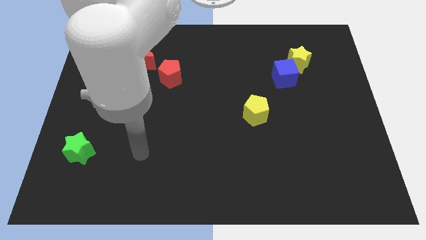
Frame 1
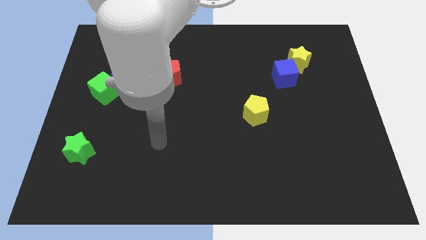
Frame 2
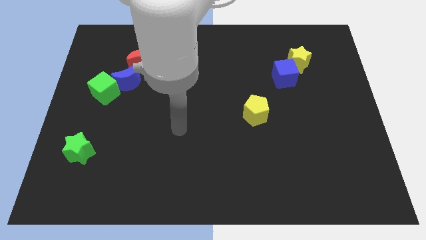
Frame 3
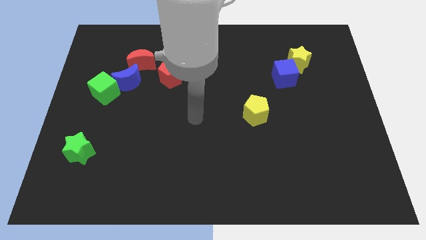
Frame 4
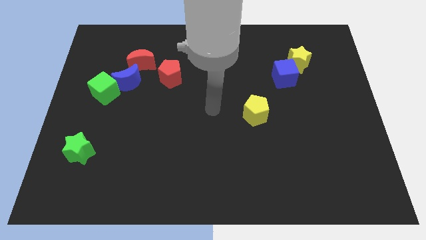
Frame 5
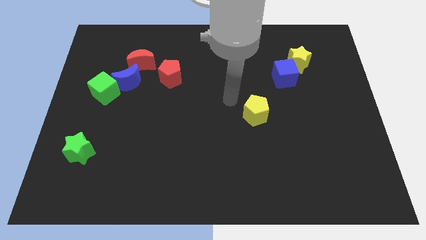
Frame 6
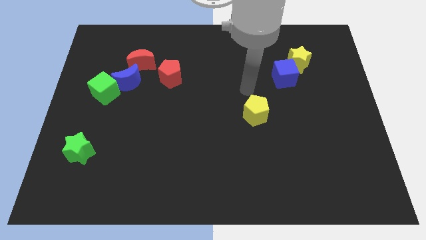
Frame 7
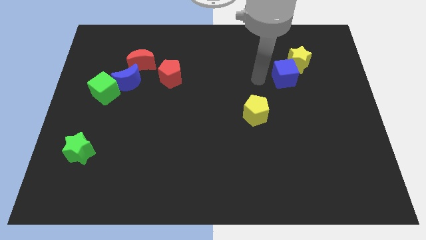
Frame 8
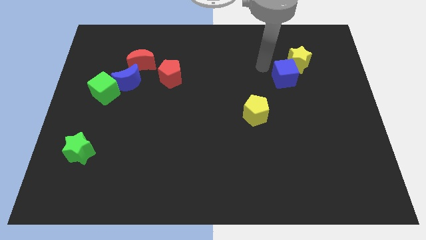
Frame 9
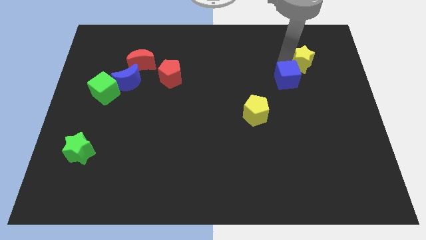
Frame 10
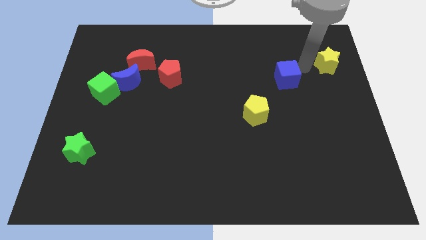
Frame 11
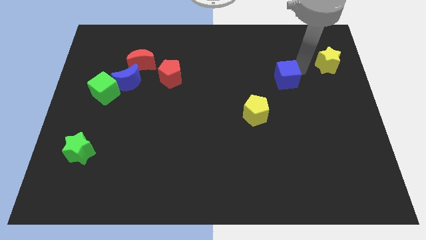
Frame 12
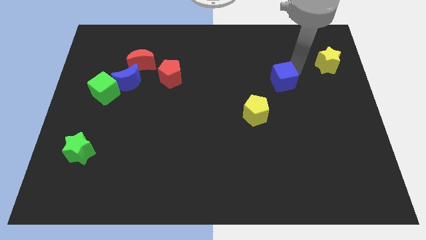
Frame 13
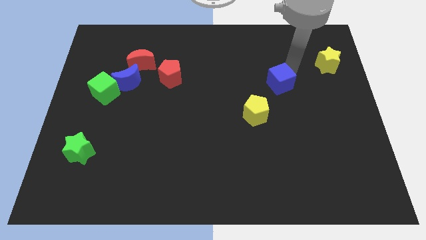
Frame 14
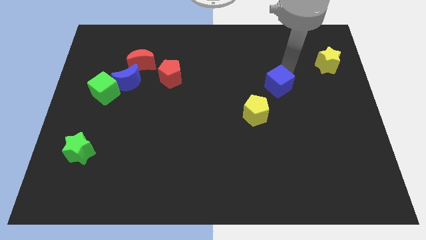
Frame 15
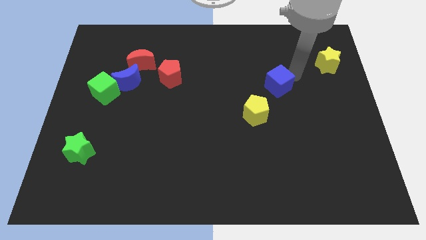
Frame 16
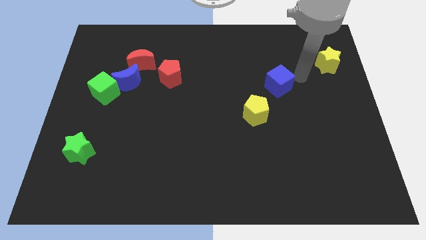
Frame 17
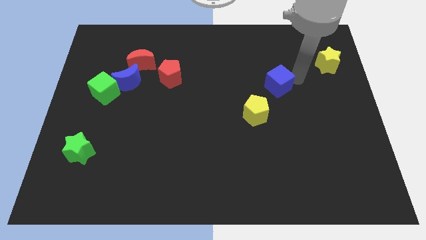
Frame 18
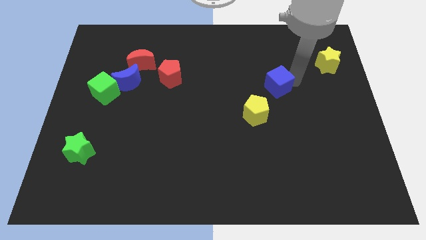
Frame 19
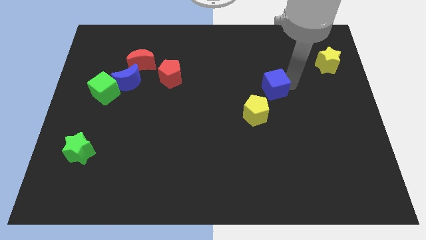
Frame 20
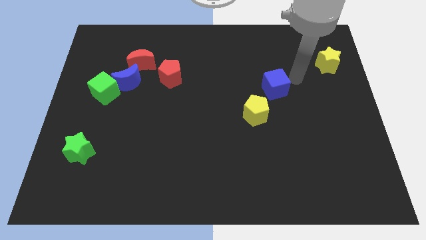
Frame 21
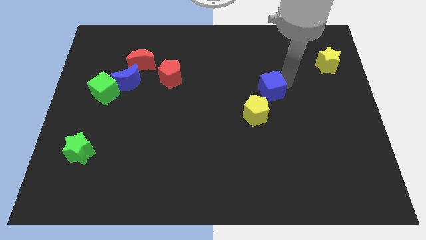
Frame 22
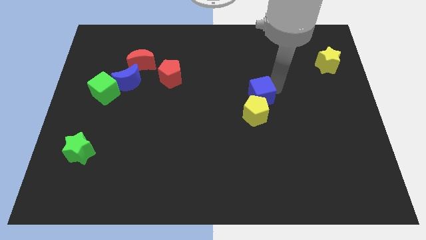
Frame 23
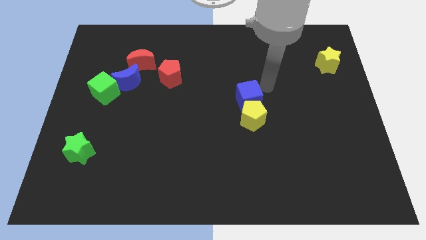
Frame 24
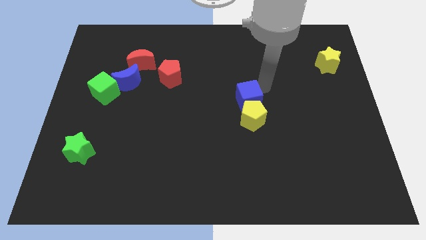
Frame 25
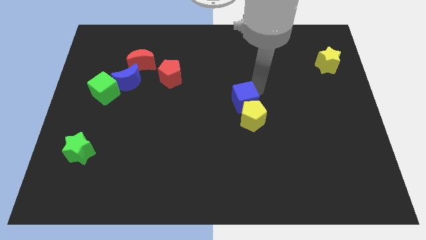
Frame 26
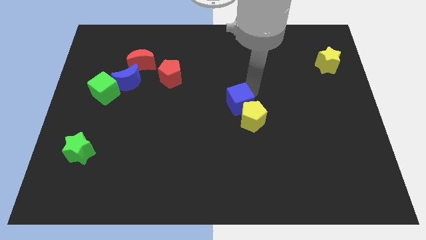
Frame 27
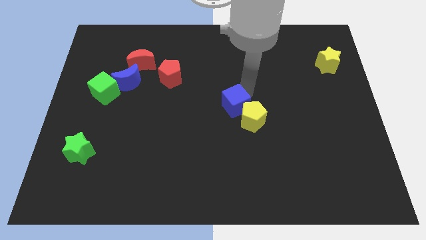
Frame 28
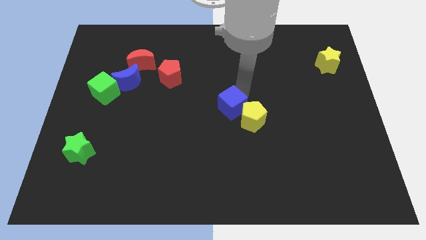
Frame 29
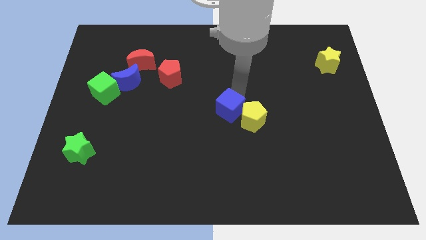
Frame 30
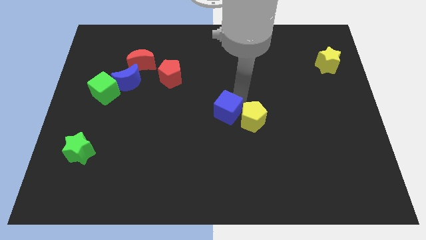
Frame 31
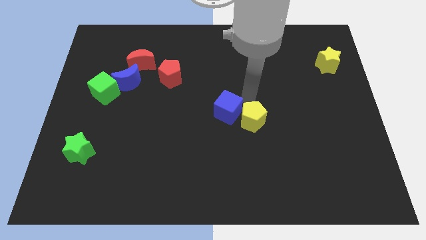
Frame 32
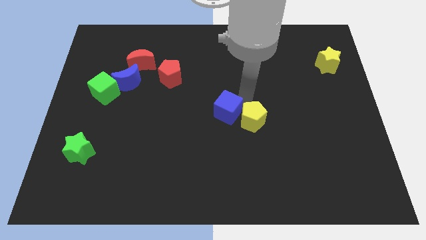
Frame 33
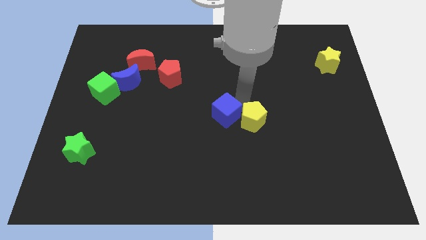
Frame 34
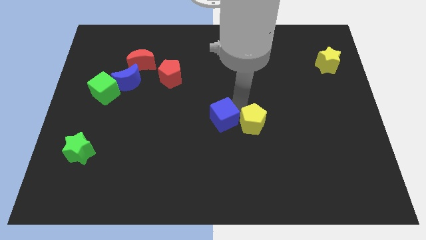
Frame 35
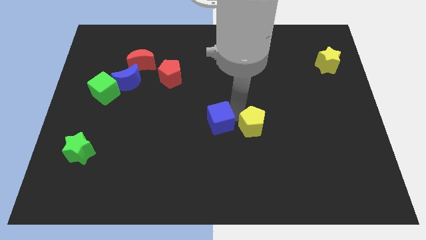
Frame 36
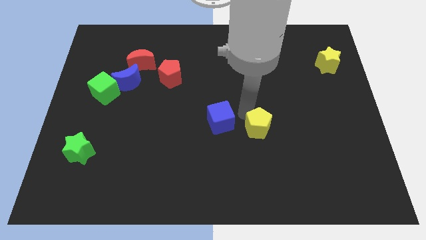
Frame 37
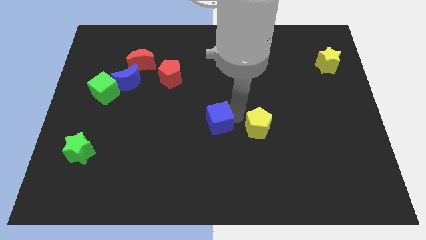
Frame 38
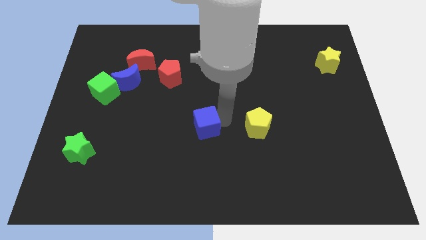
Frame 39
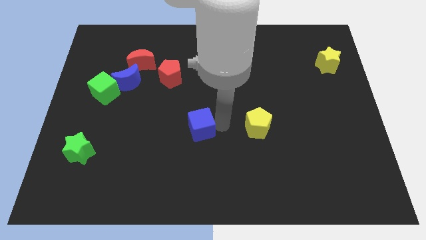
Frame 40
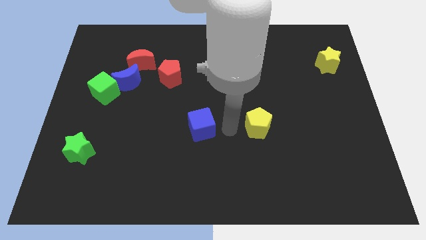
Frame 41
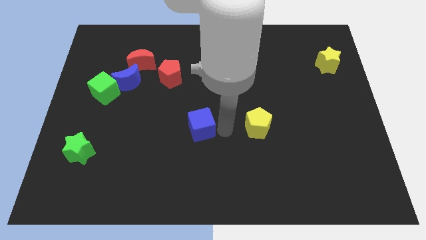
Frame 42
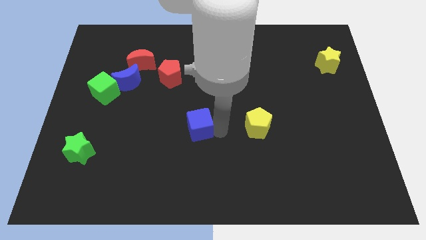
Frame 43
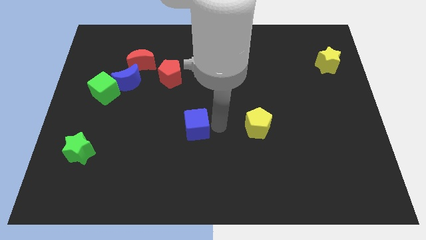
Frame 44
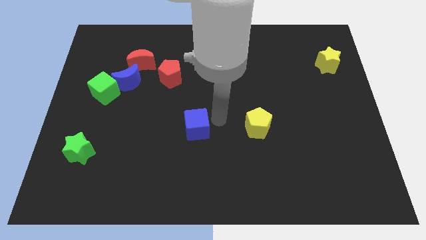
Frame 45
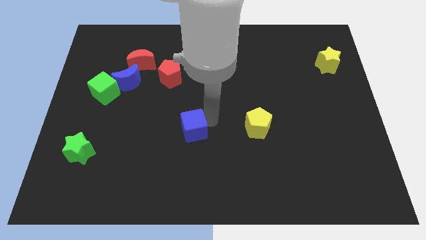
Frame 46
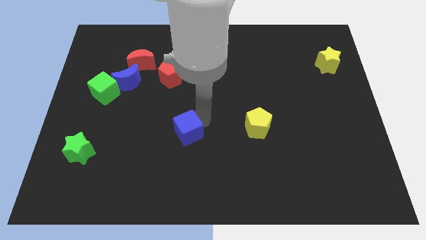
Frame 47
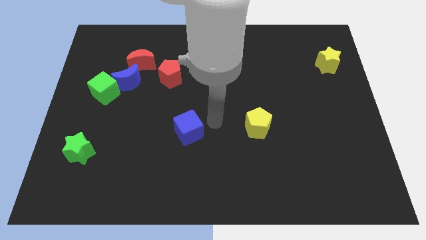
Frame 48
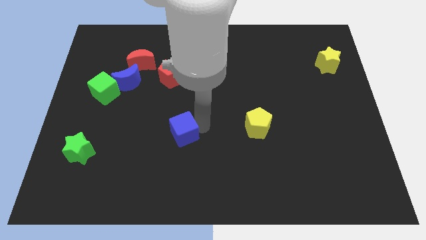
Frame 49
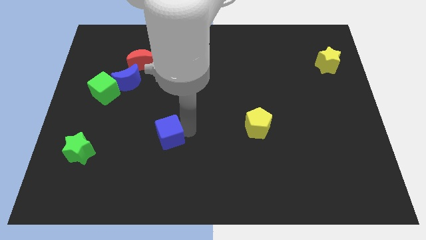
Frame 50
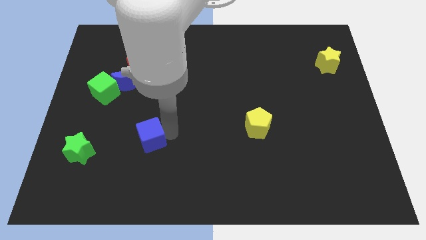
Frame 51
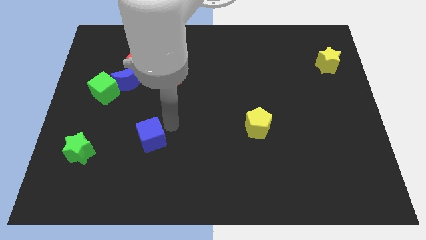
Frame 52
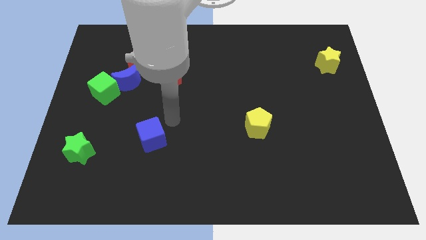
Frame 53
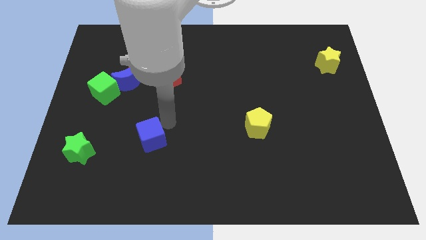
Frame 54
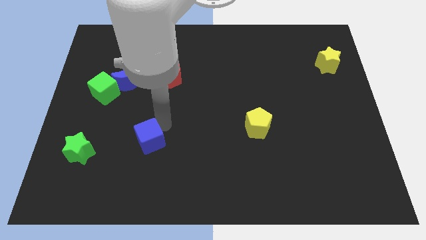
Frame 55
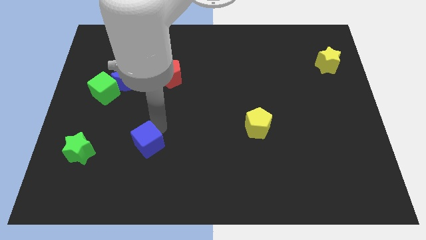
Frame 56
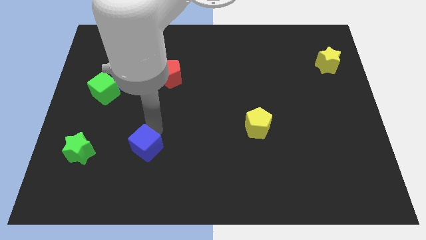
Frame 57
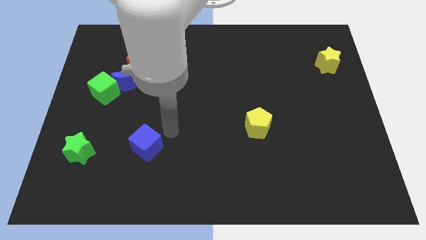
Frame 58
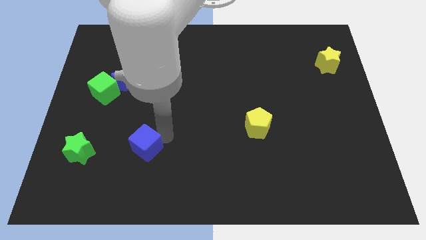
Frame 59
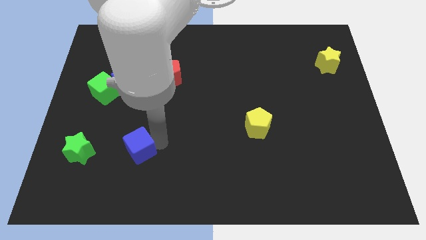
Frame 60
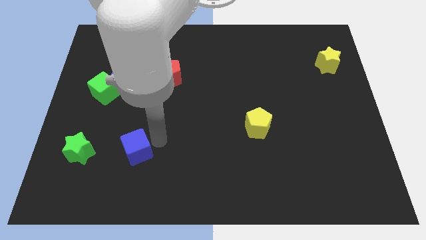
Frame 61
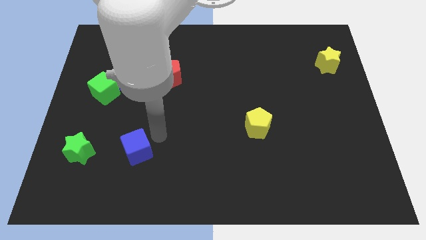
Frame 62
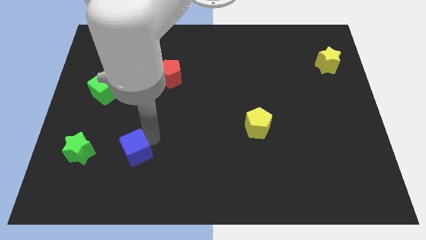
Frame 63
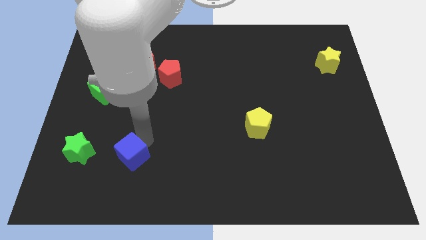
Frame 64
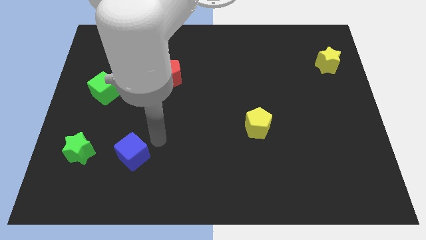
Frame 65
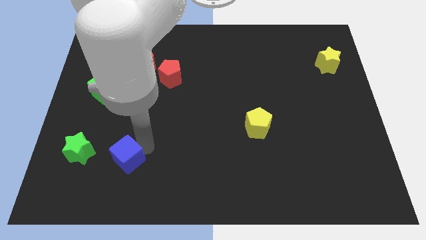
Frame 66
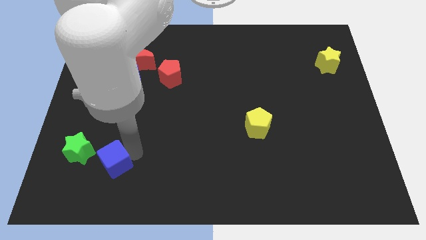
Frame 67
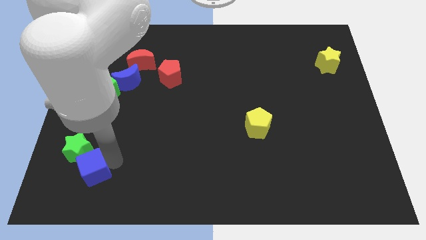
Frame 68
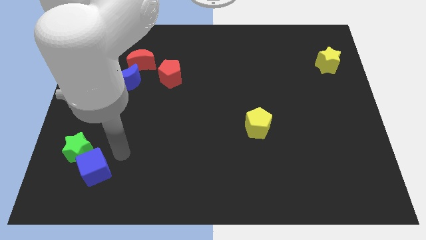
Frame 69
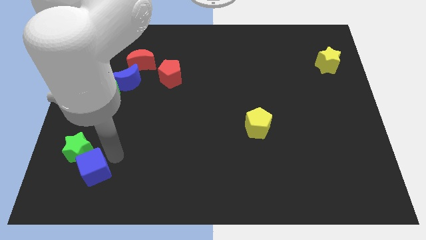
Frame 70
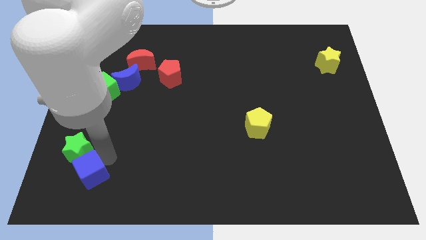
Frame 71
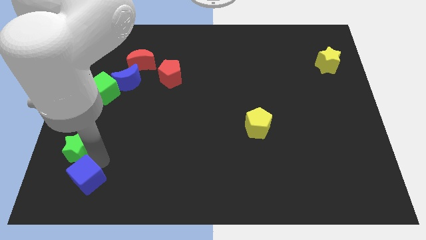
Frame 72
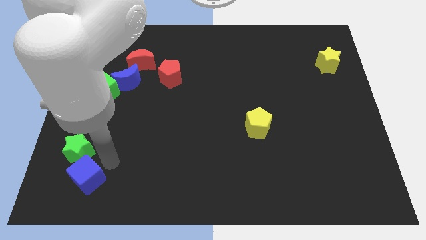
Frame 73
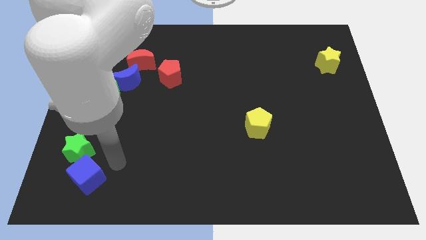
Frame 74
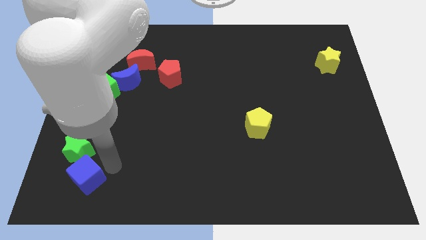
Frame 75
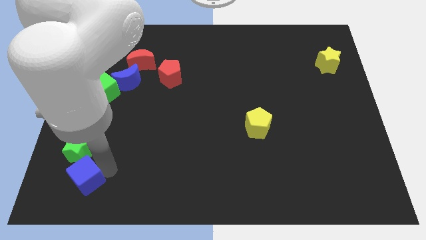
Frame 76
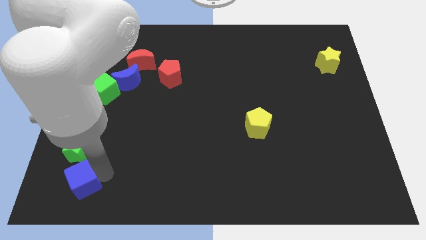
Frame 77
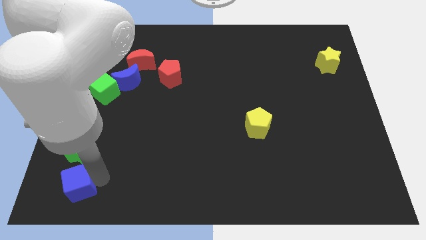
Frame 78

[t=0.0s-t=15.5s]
slide the blue cube to the bottom left corner
